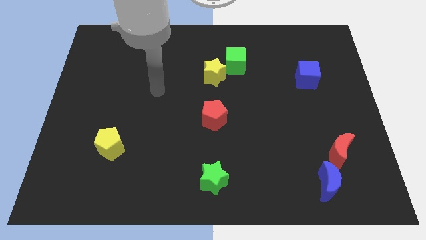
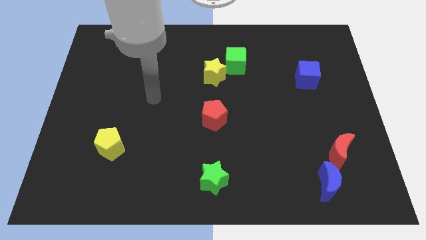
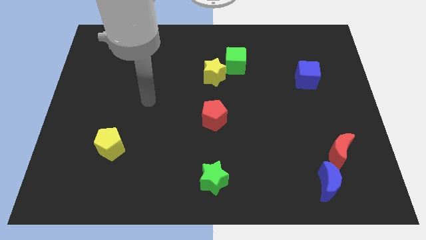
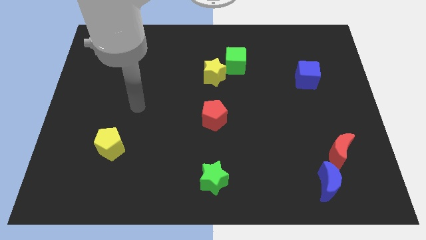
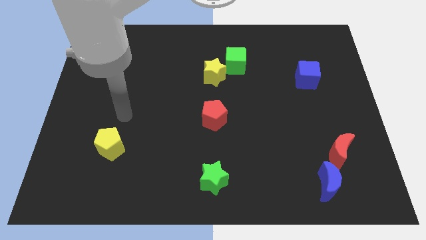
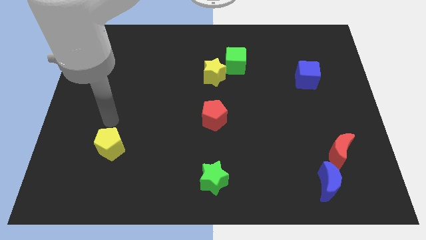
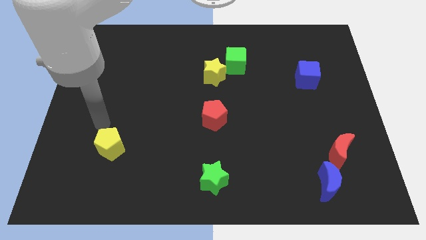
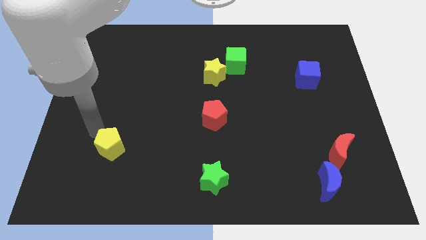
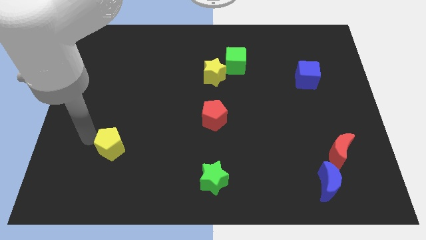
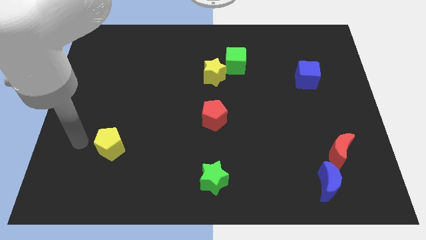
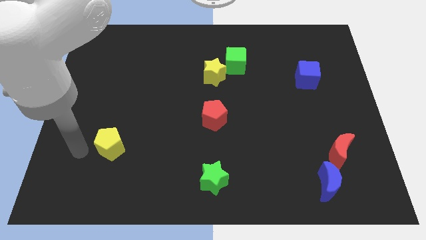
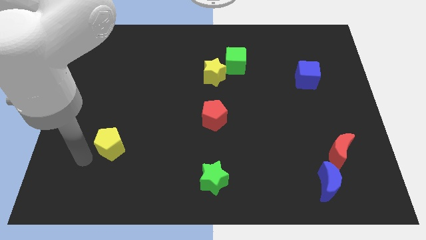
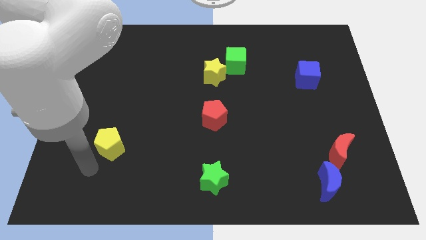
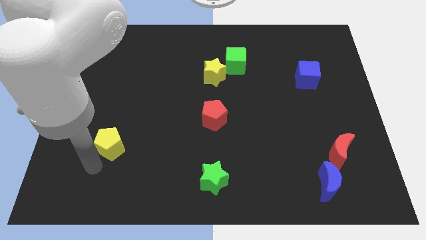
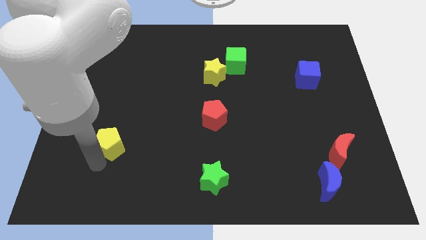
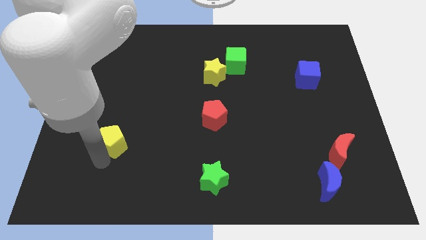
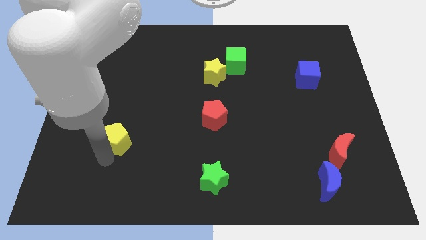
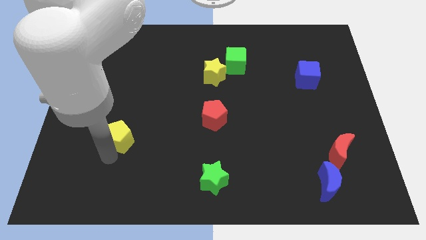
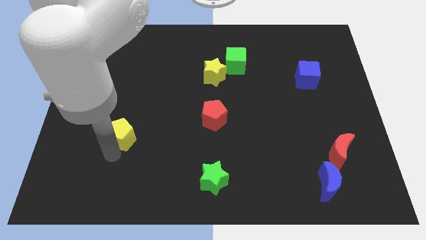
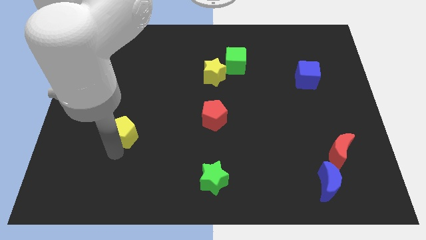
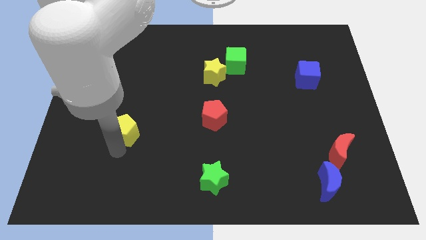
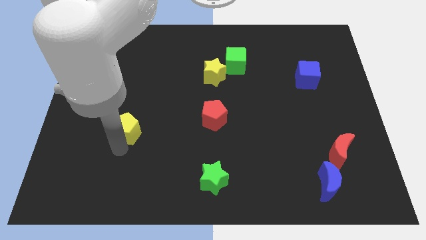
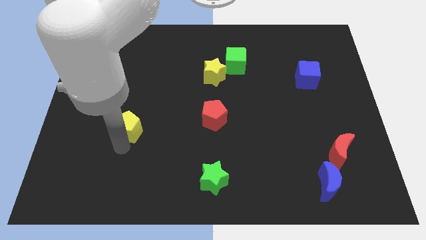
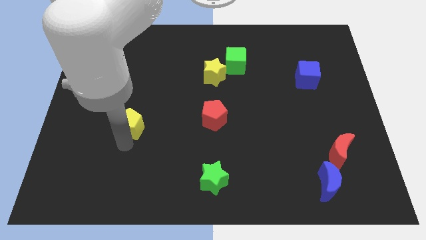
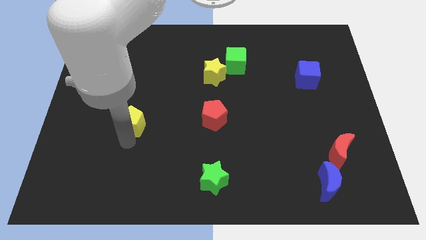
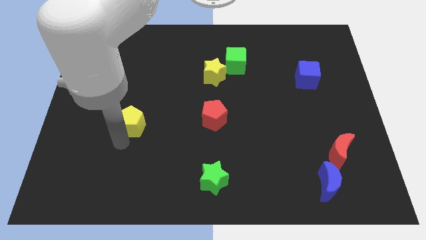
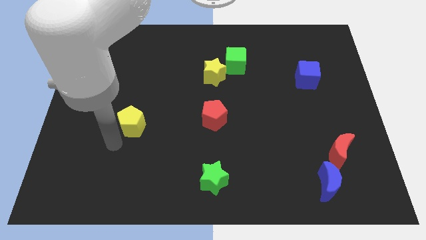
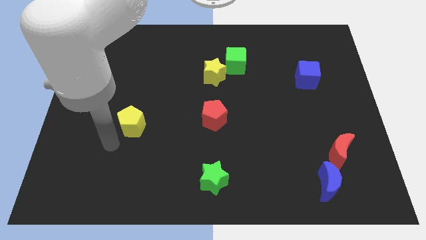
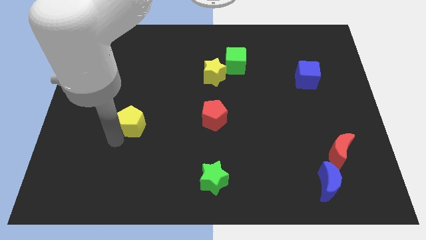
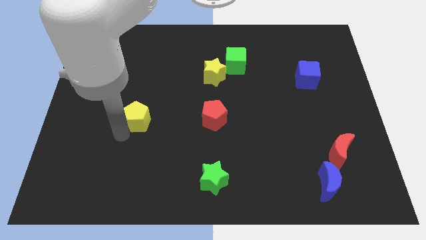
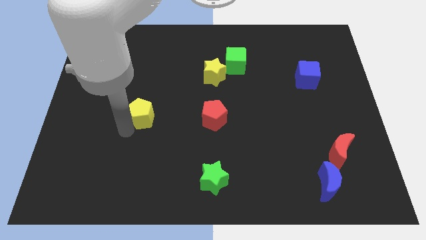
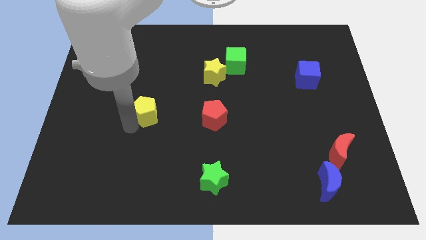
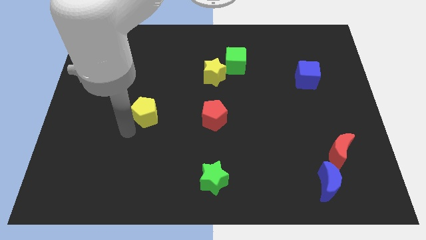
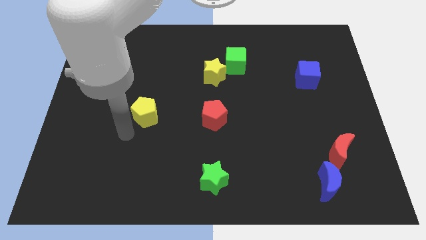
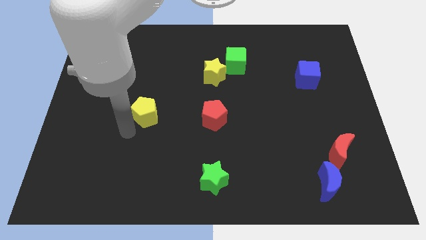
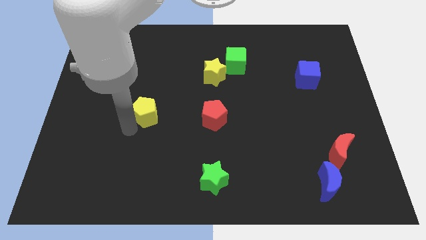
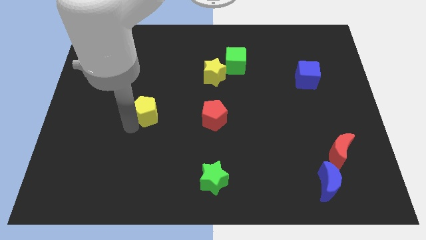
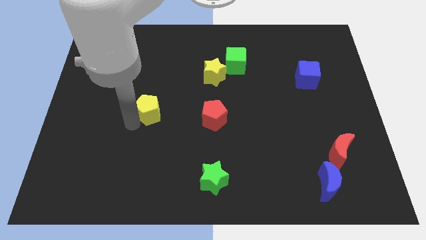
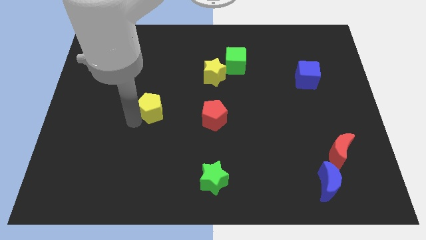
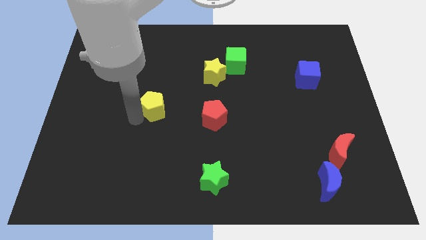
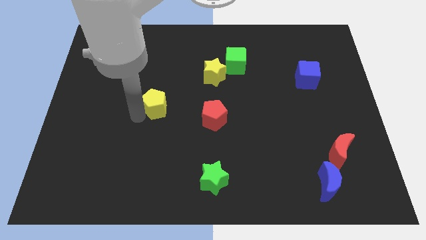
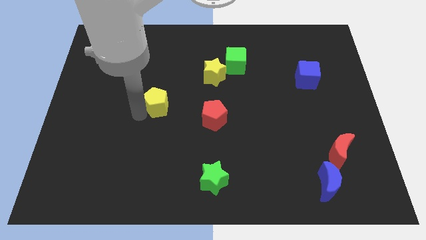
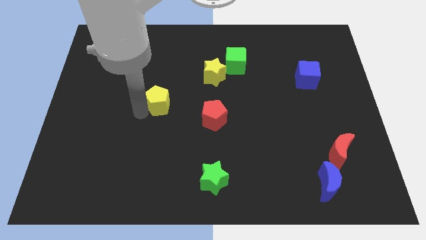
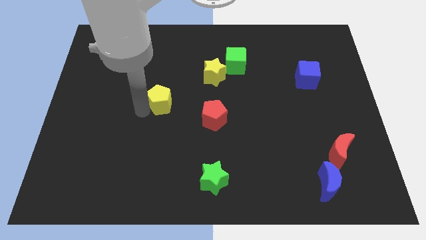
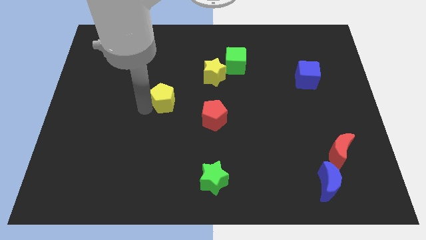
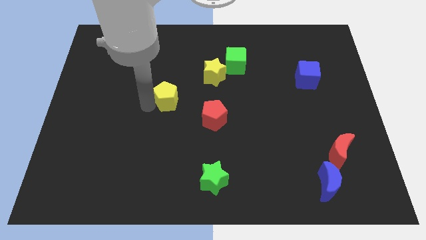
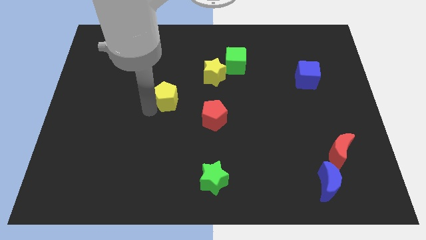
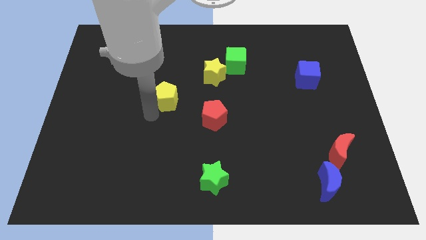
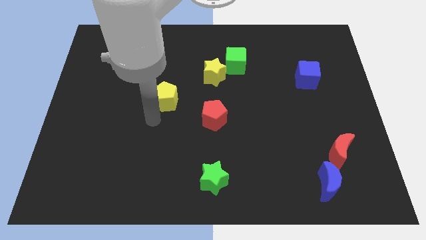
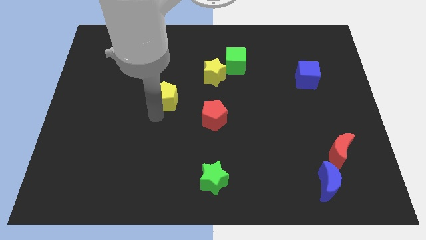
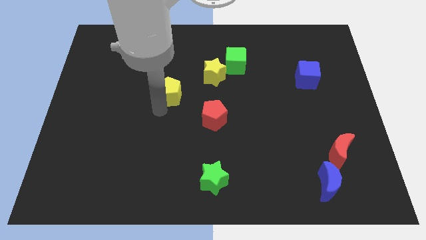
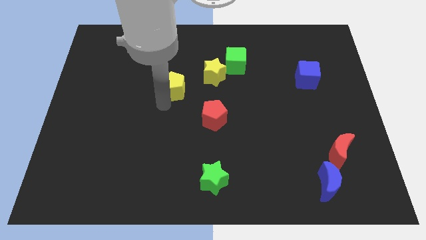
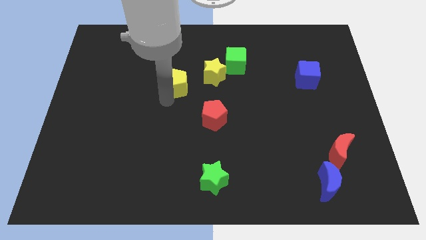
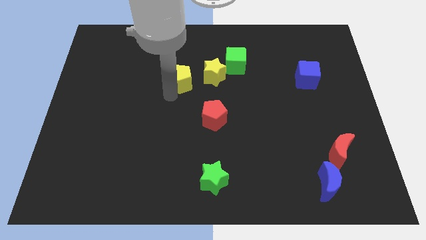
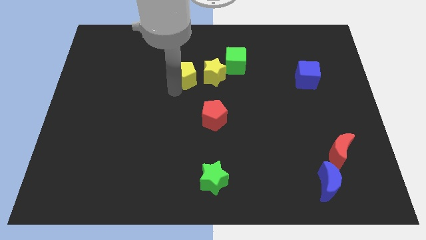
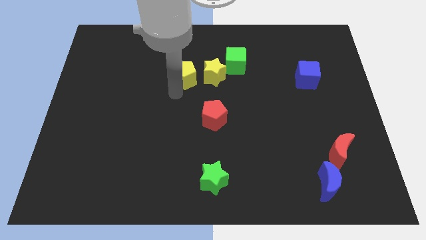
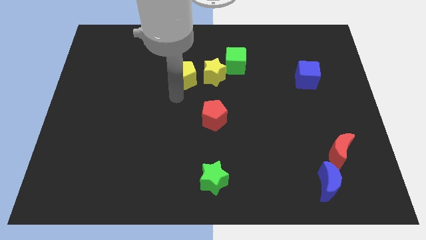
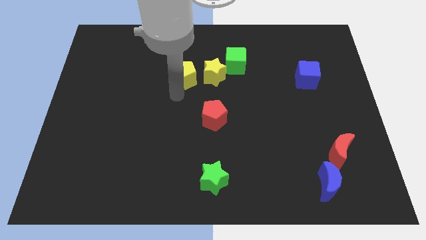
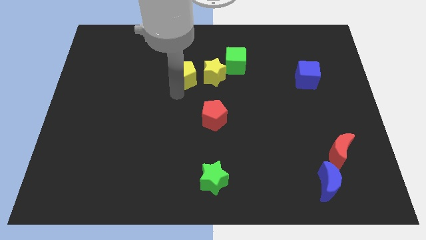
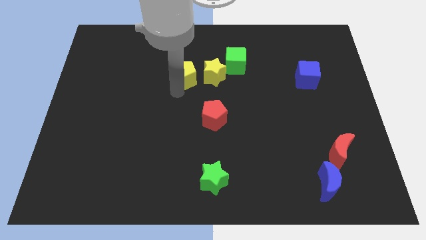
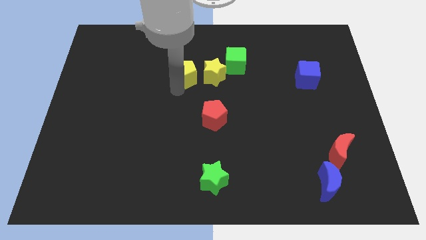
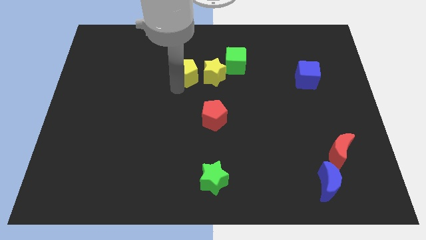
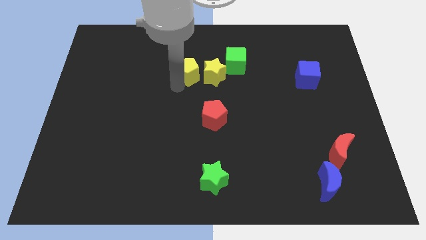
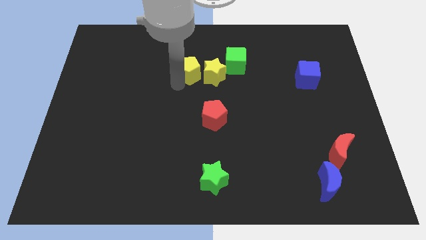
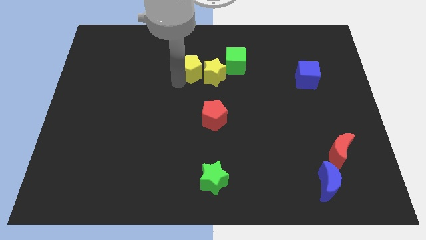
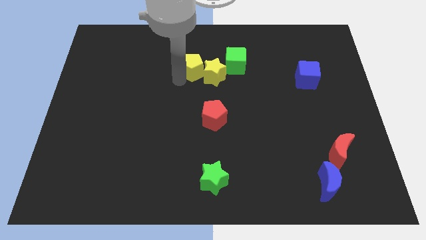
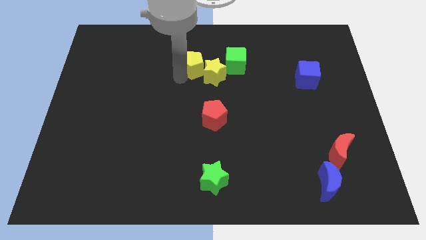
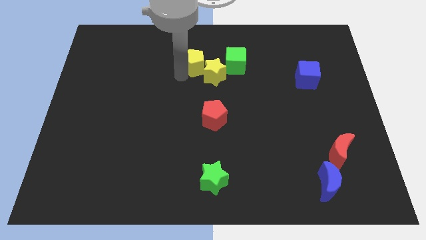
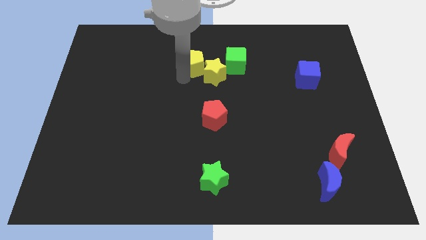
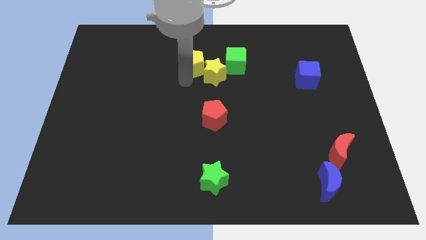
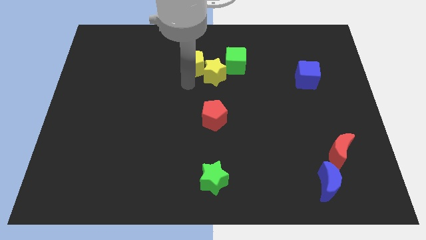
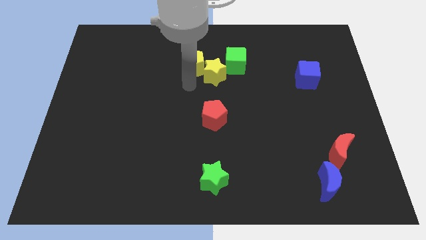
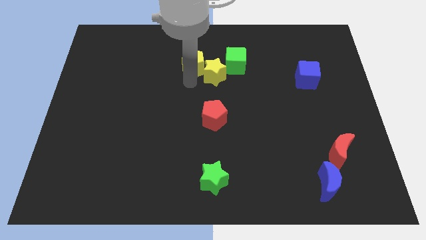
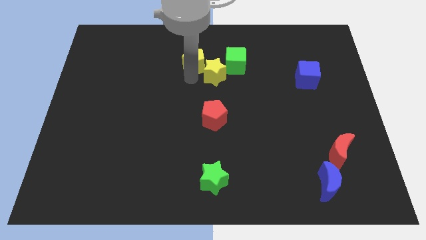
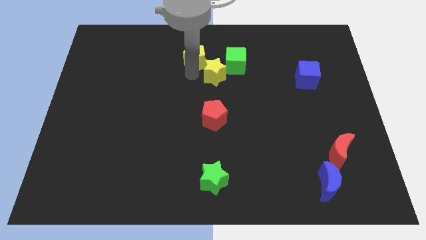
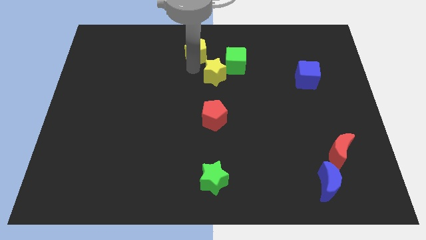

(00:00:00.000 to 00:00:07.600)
slide the yellow pentagon to the top
